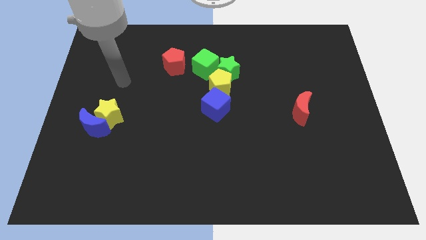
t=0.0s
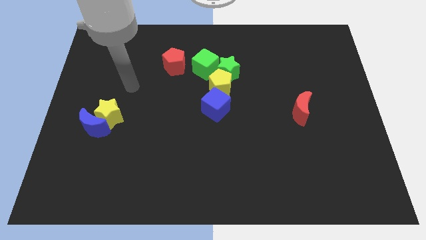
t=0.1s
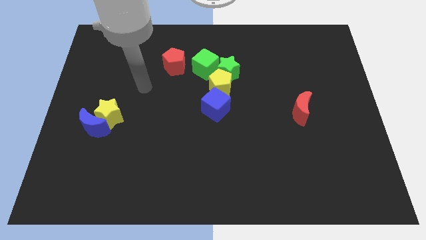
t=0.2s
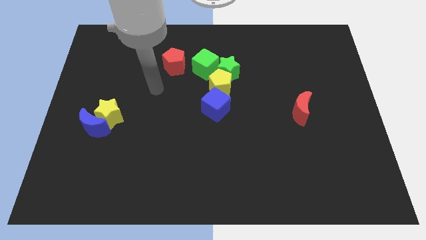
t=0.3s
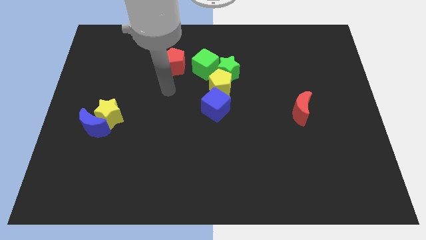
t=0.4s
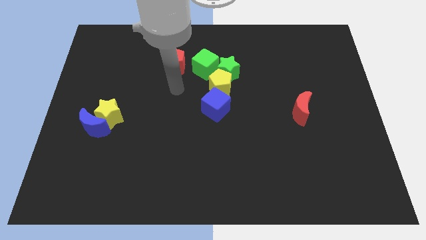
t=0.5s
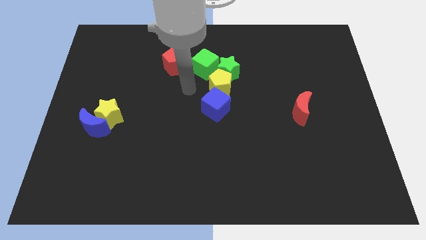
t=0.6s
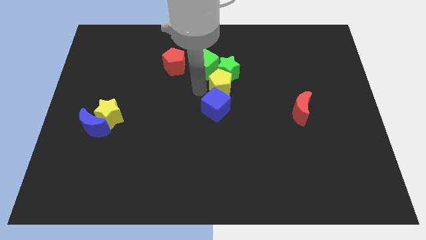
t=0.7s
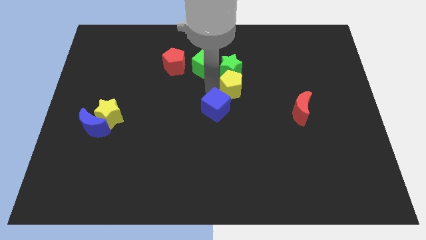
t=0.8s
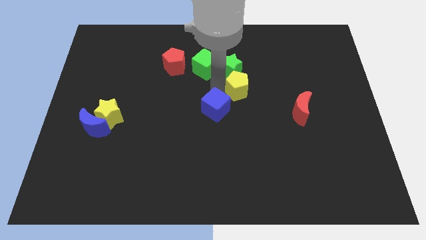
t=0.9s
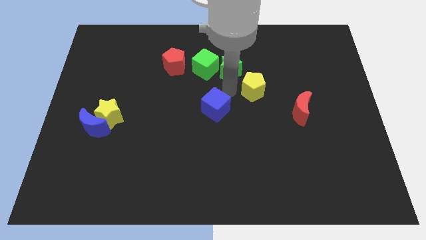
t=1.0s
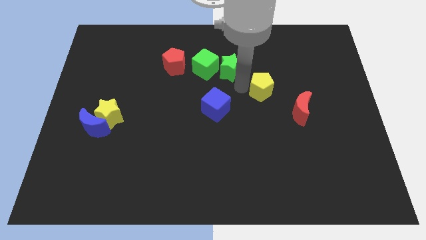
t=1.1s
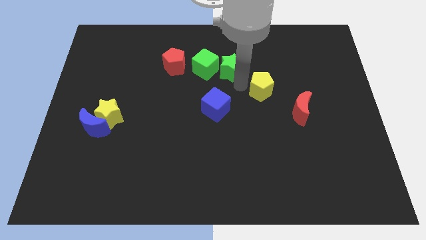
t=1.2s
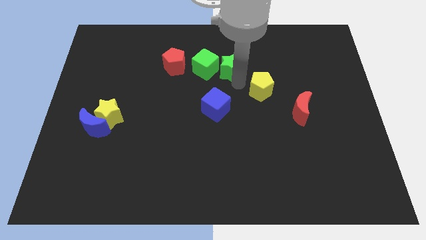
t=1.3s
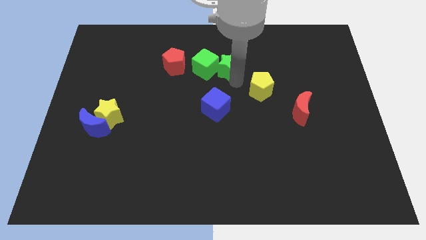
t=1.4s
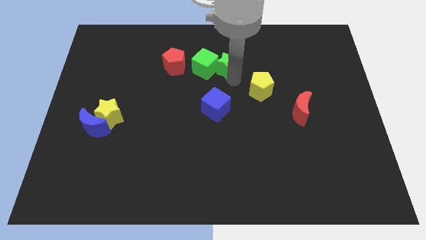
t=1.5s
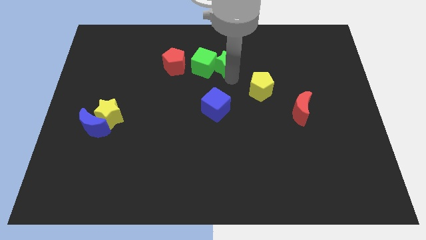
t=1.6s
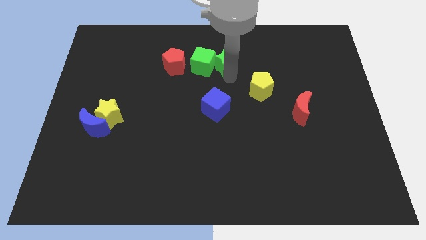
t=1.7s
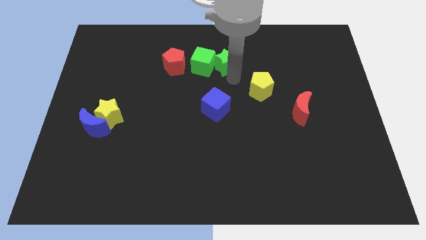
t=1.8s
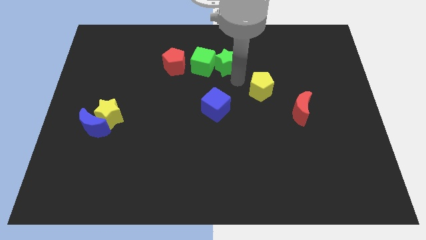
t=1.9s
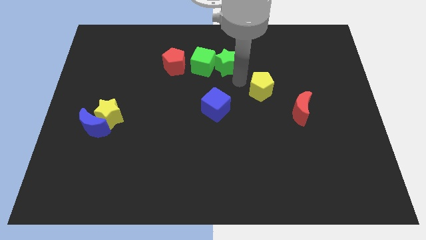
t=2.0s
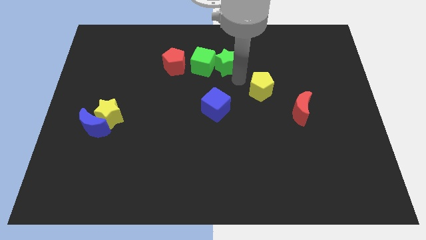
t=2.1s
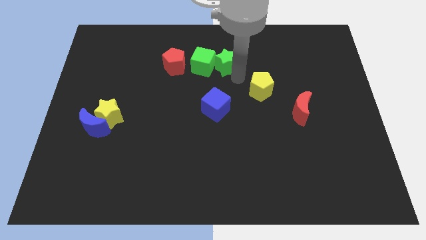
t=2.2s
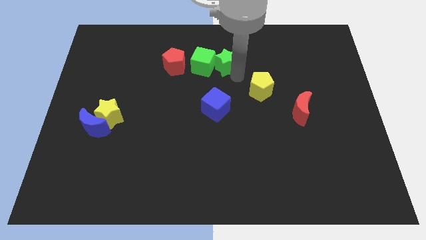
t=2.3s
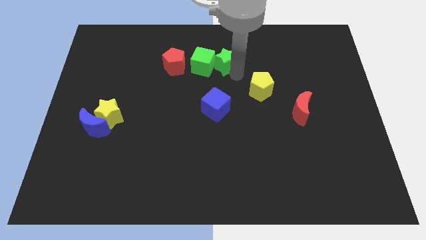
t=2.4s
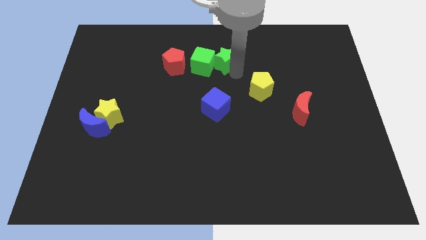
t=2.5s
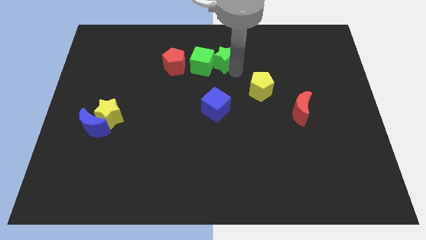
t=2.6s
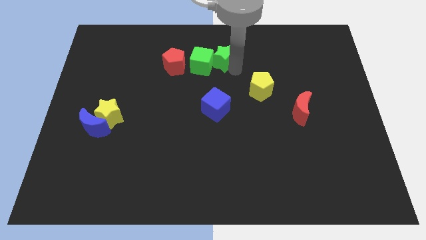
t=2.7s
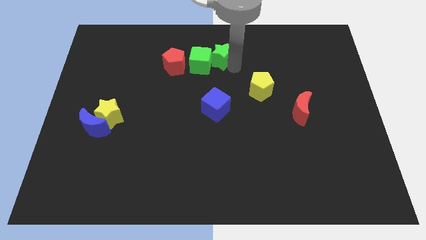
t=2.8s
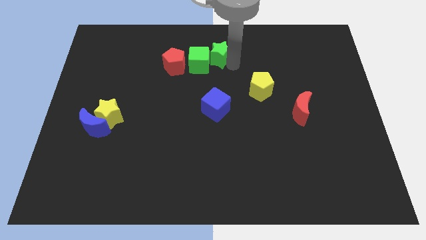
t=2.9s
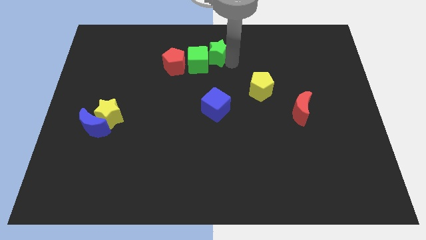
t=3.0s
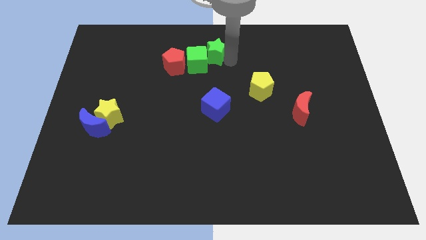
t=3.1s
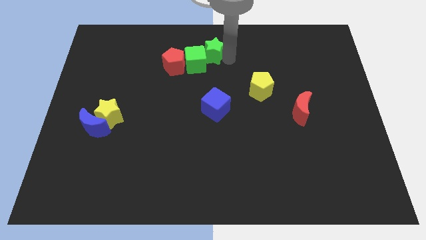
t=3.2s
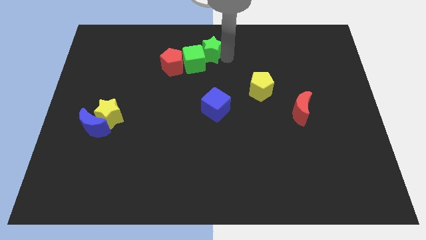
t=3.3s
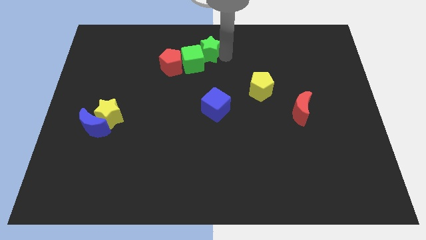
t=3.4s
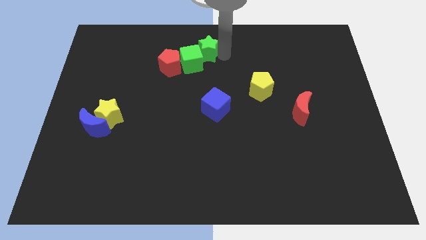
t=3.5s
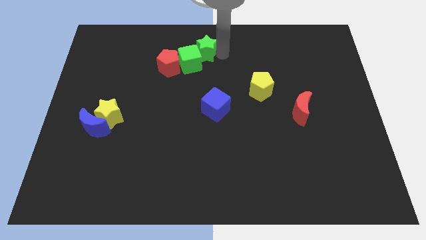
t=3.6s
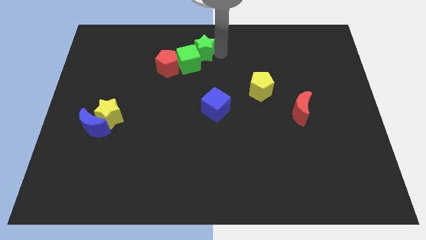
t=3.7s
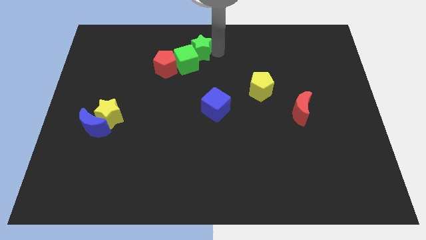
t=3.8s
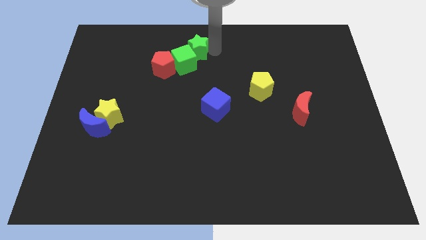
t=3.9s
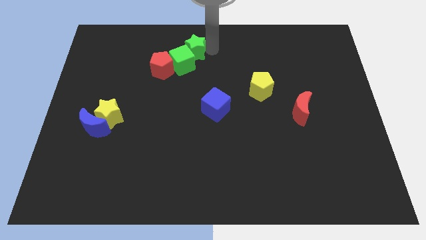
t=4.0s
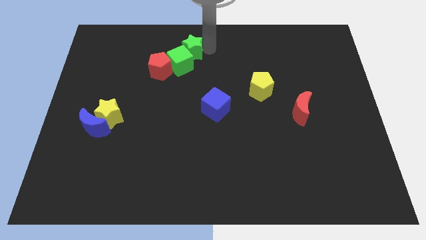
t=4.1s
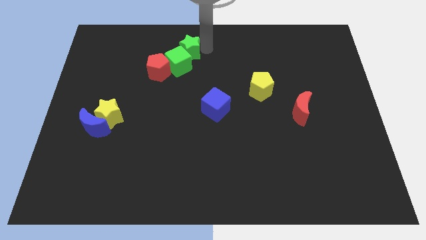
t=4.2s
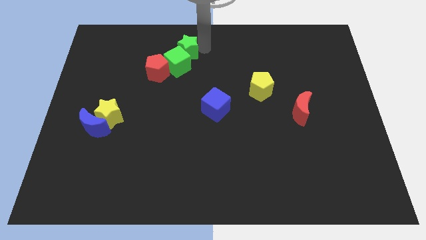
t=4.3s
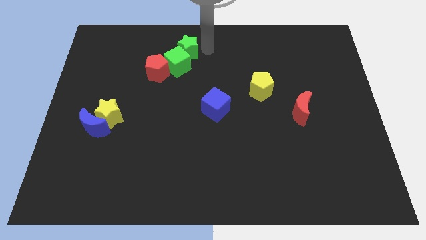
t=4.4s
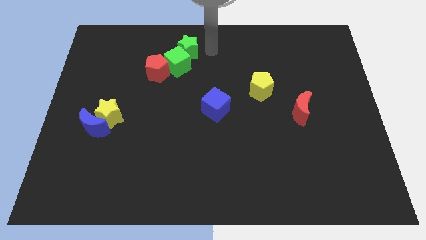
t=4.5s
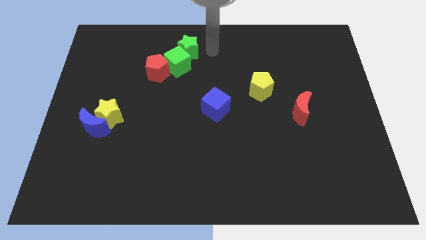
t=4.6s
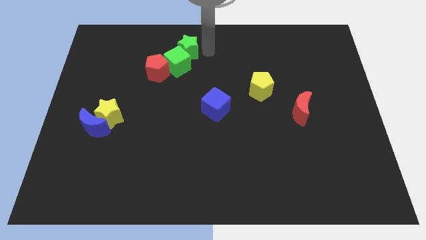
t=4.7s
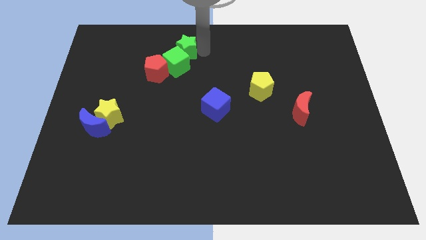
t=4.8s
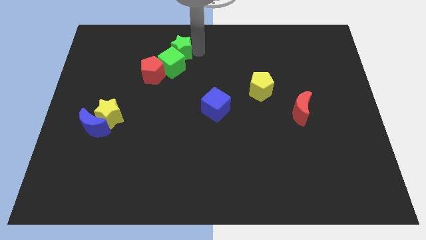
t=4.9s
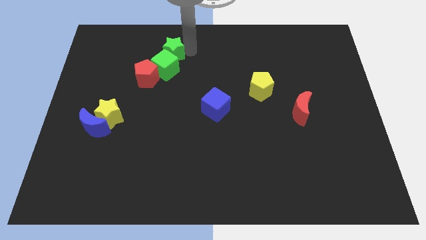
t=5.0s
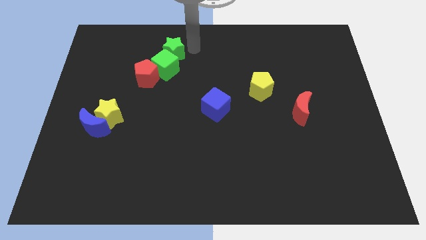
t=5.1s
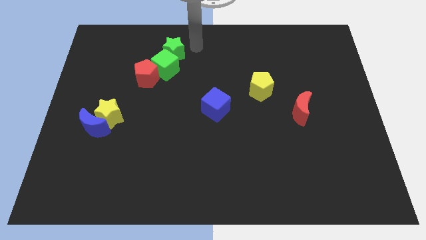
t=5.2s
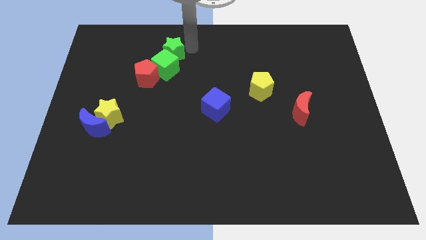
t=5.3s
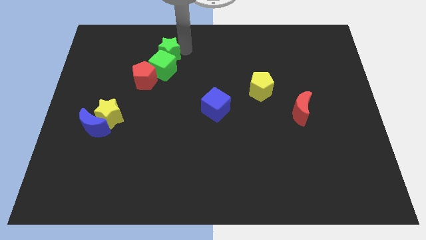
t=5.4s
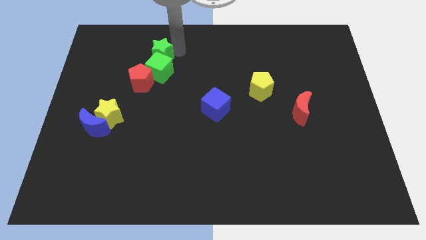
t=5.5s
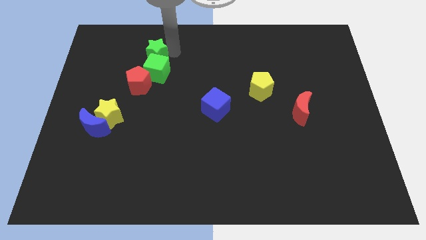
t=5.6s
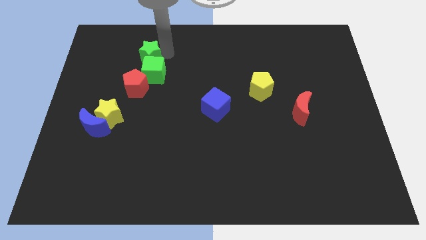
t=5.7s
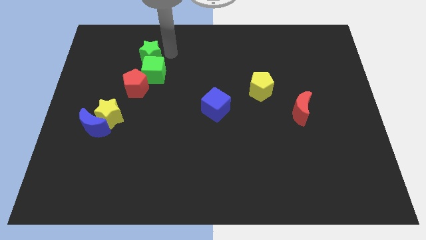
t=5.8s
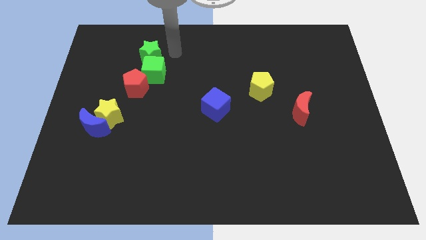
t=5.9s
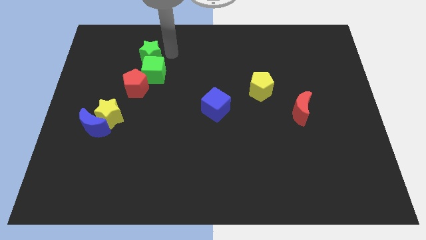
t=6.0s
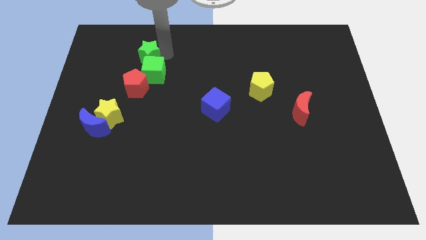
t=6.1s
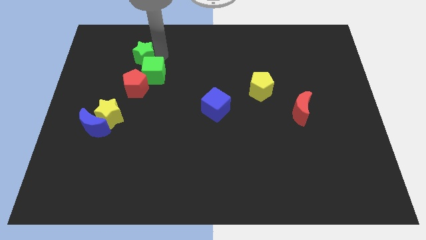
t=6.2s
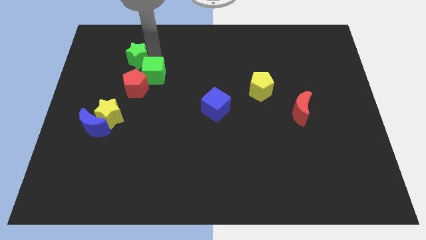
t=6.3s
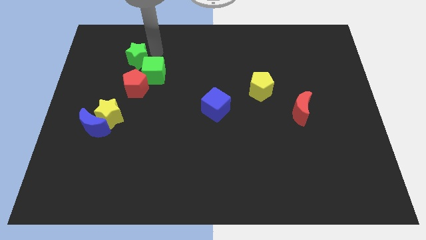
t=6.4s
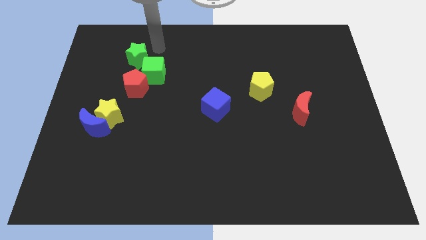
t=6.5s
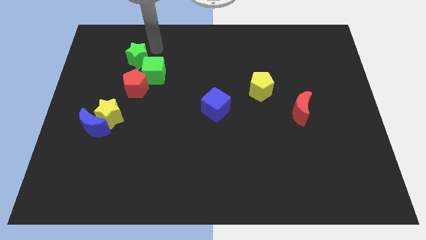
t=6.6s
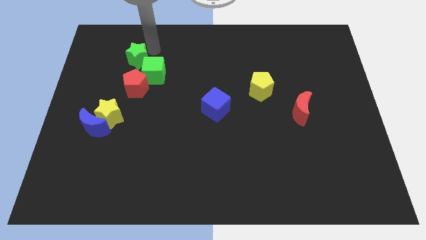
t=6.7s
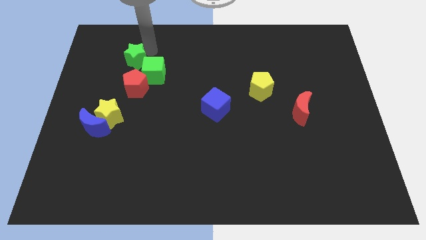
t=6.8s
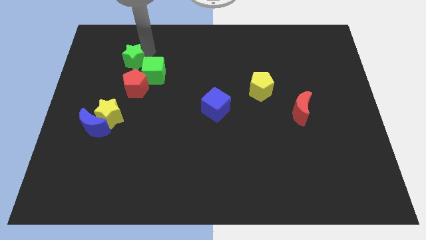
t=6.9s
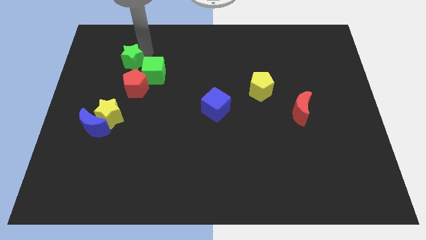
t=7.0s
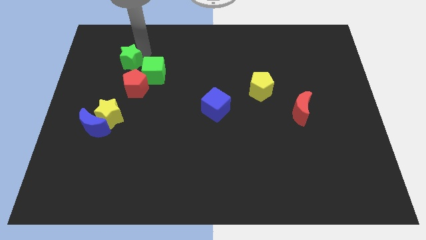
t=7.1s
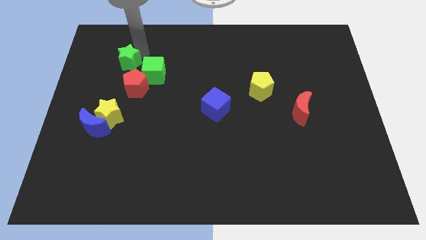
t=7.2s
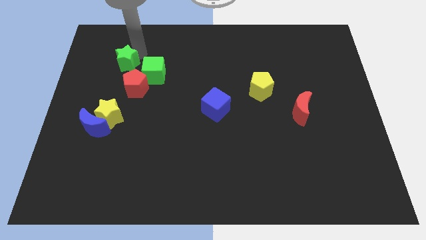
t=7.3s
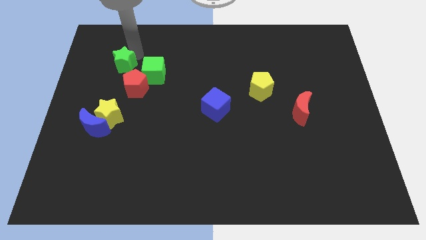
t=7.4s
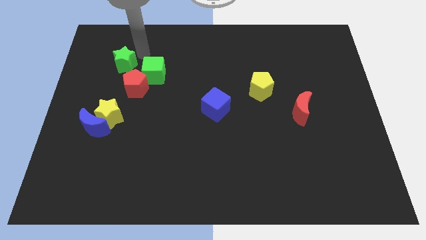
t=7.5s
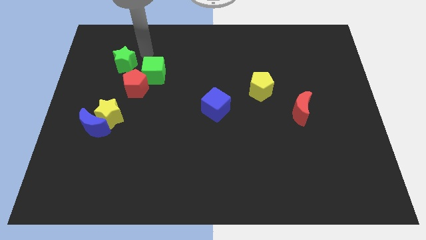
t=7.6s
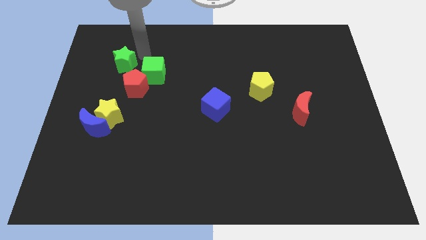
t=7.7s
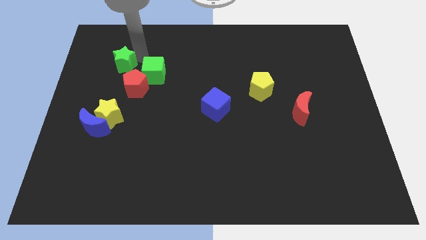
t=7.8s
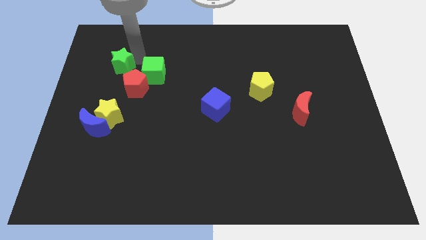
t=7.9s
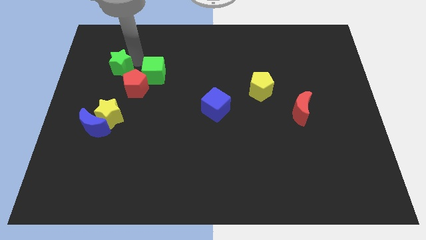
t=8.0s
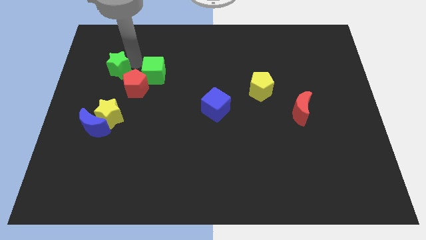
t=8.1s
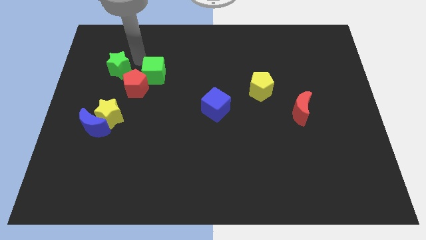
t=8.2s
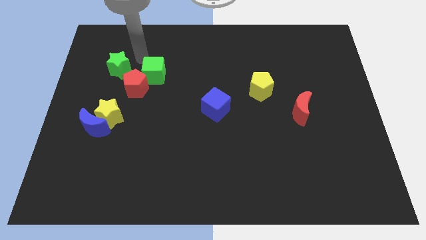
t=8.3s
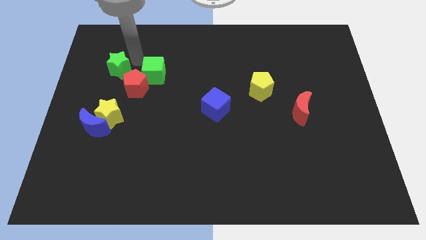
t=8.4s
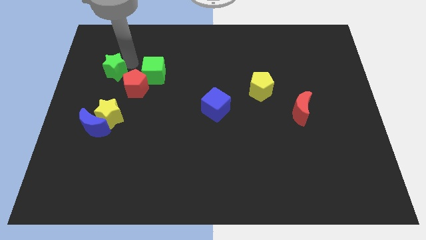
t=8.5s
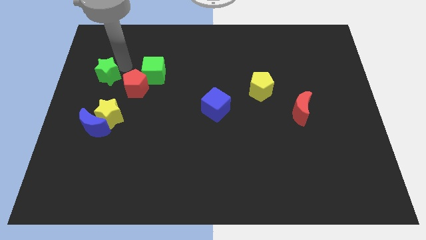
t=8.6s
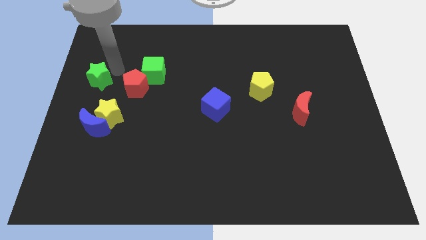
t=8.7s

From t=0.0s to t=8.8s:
put the green star to the left side
